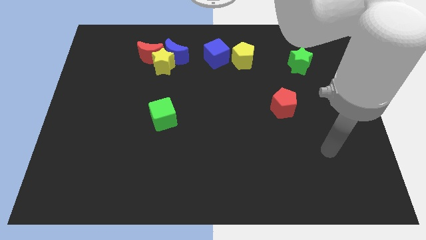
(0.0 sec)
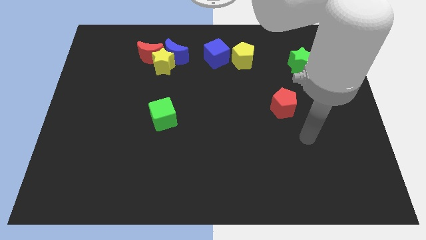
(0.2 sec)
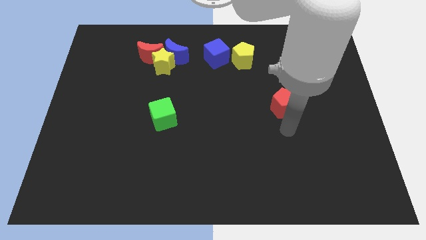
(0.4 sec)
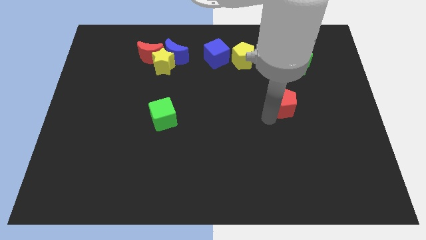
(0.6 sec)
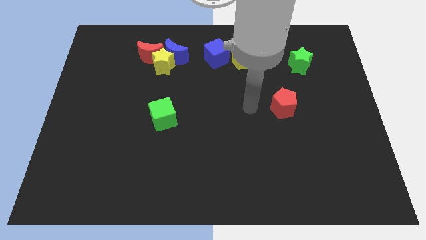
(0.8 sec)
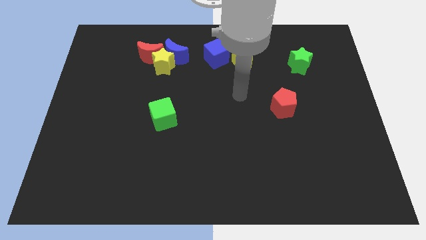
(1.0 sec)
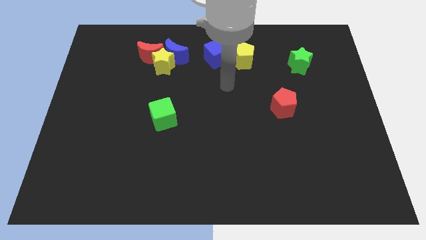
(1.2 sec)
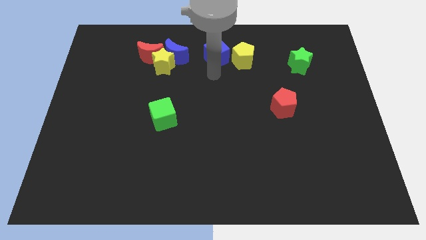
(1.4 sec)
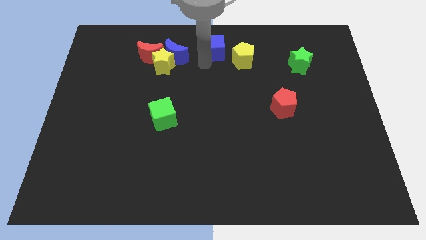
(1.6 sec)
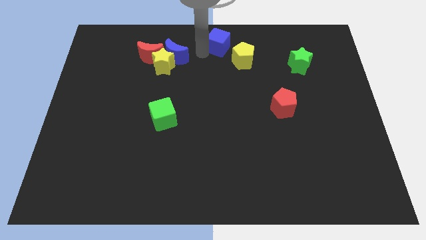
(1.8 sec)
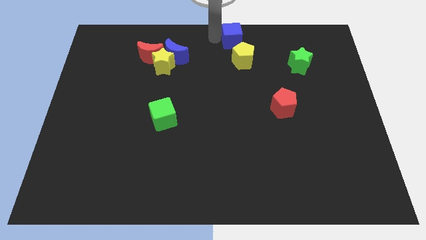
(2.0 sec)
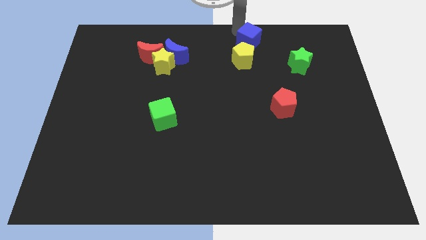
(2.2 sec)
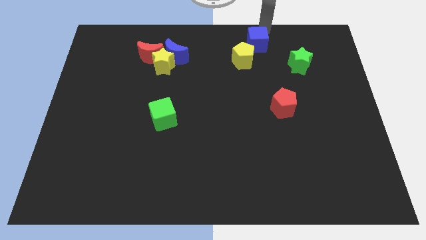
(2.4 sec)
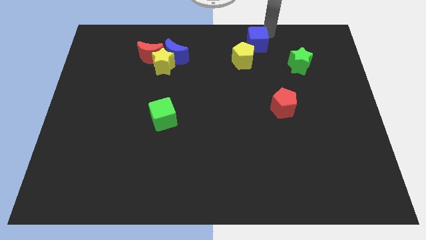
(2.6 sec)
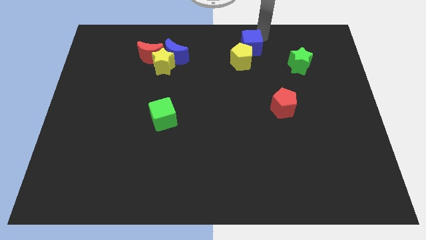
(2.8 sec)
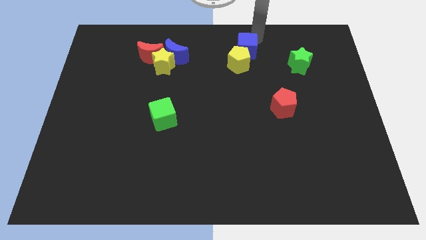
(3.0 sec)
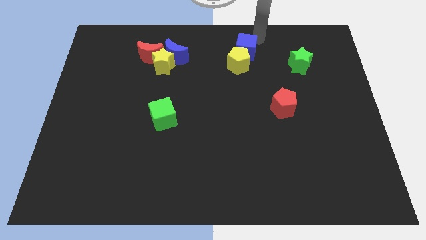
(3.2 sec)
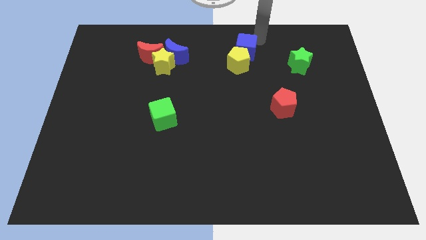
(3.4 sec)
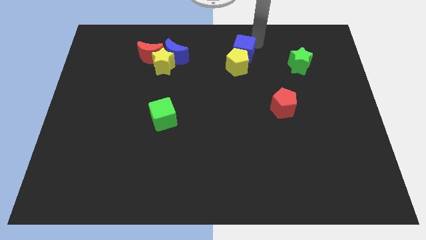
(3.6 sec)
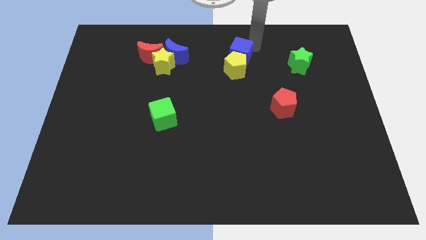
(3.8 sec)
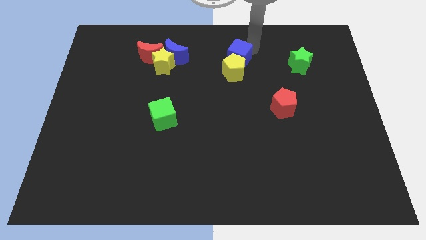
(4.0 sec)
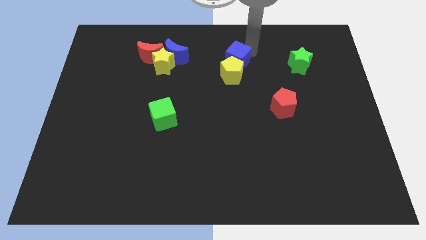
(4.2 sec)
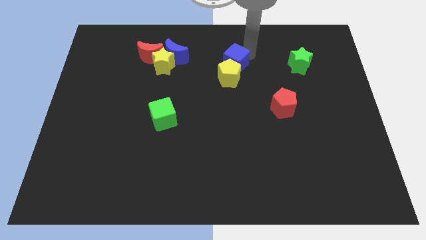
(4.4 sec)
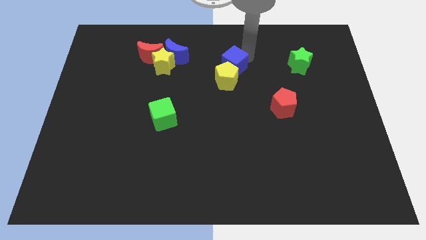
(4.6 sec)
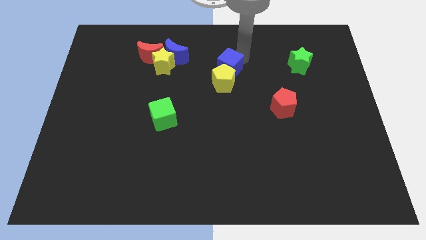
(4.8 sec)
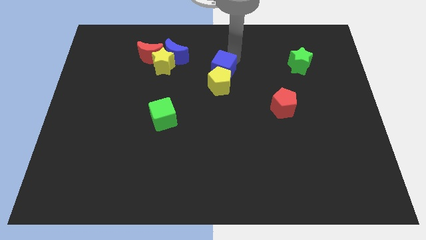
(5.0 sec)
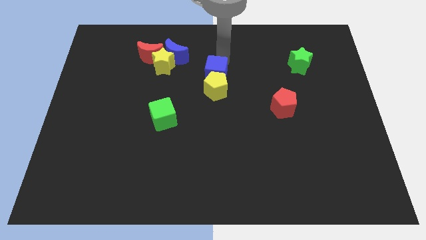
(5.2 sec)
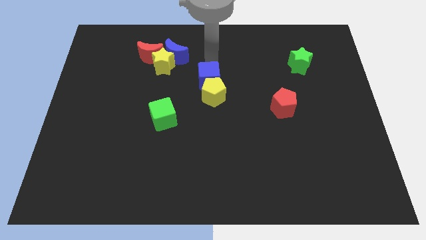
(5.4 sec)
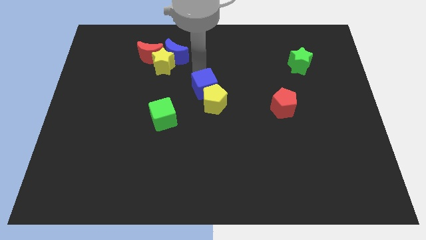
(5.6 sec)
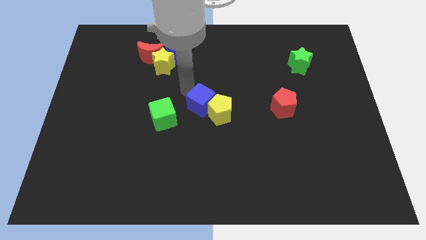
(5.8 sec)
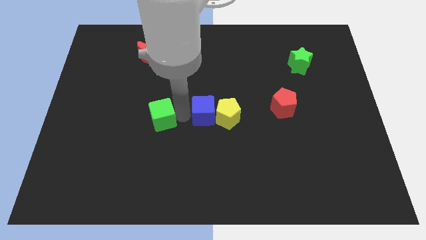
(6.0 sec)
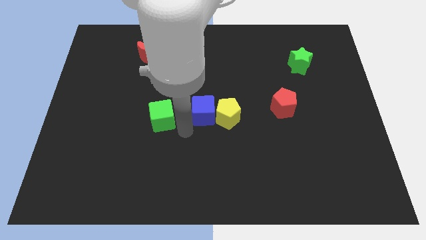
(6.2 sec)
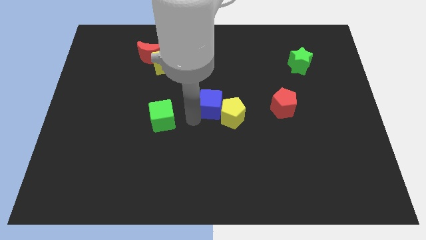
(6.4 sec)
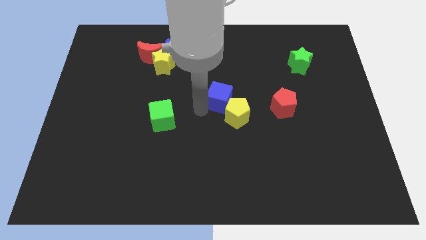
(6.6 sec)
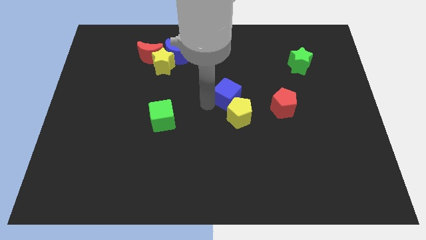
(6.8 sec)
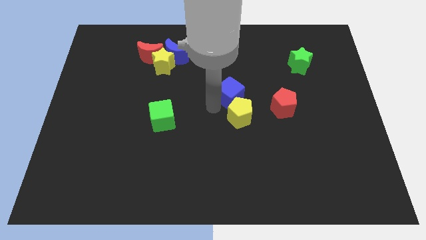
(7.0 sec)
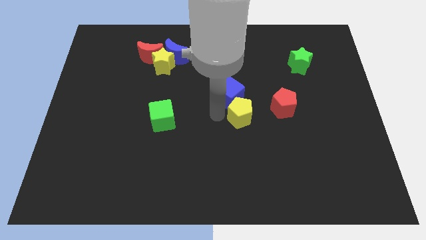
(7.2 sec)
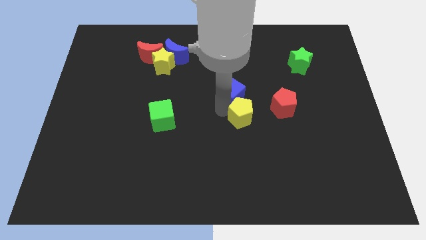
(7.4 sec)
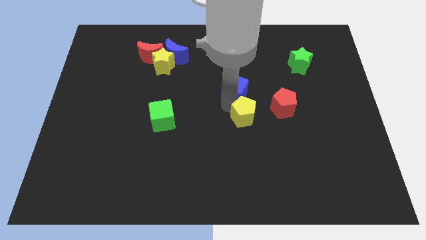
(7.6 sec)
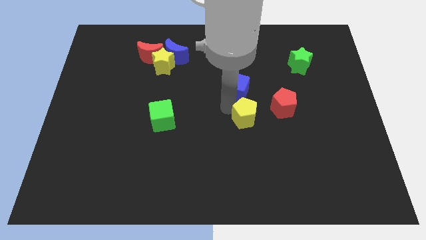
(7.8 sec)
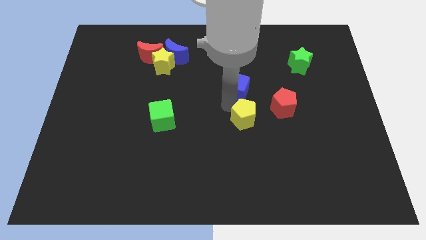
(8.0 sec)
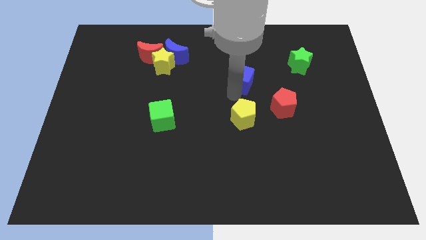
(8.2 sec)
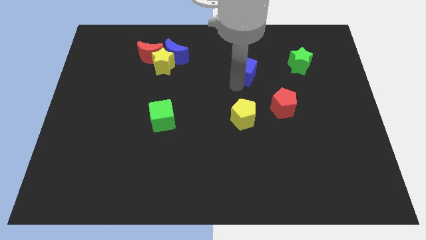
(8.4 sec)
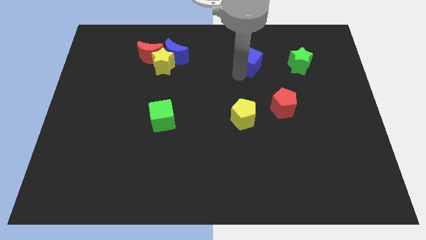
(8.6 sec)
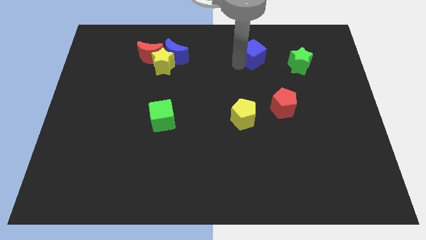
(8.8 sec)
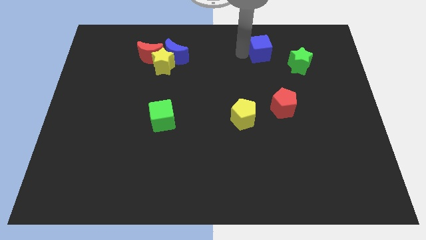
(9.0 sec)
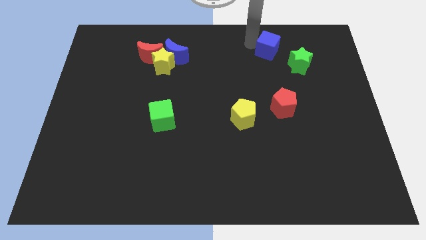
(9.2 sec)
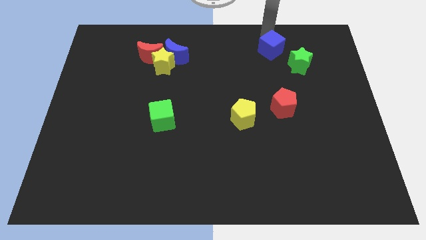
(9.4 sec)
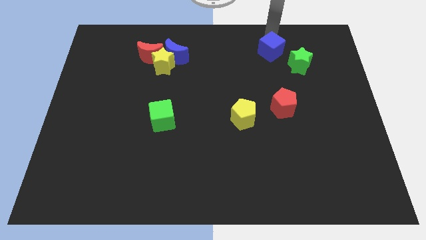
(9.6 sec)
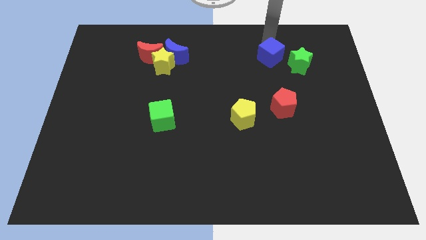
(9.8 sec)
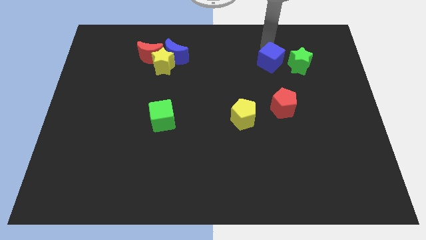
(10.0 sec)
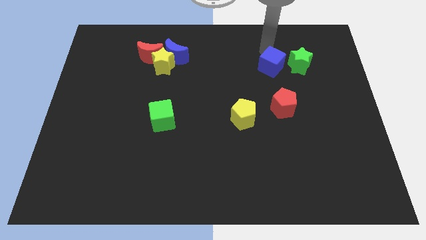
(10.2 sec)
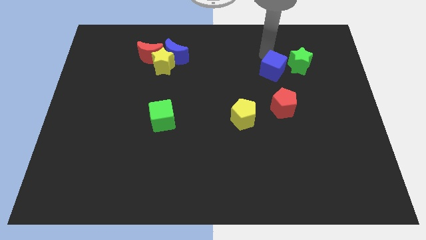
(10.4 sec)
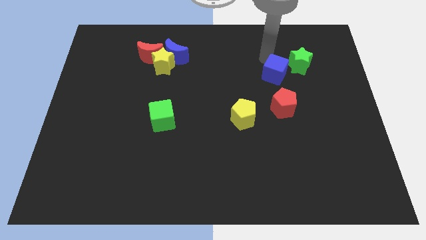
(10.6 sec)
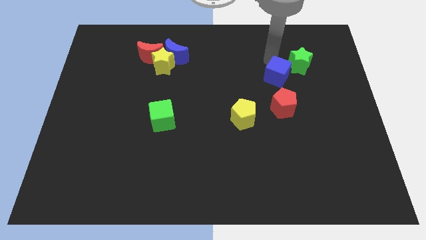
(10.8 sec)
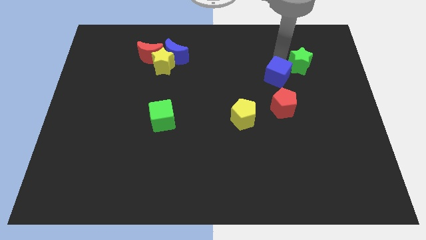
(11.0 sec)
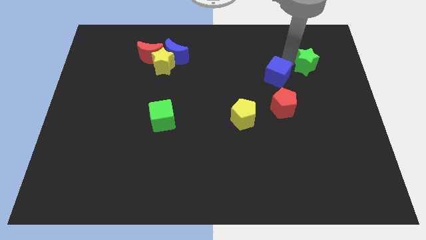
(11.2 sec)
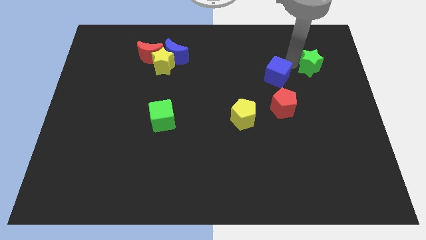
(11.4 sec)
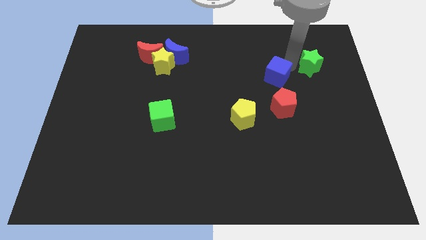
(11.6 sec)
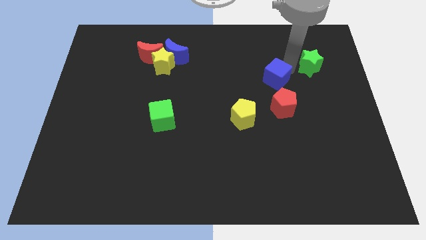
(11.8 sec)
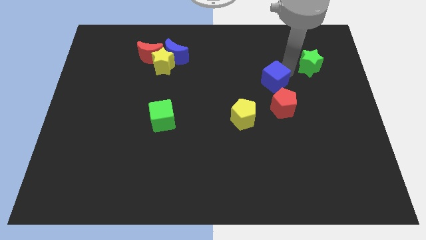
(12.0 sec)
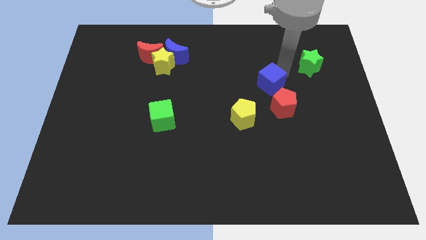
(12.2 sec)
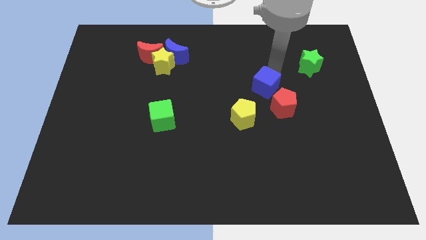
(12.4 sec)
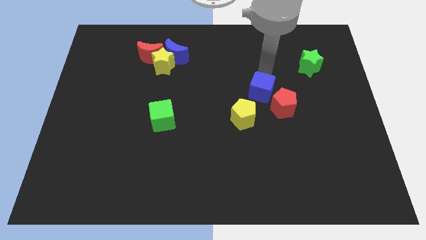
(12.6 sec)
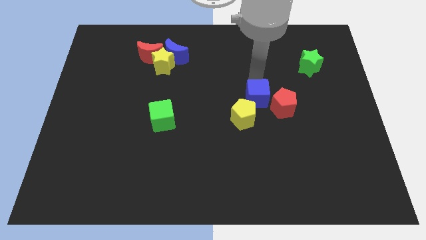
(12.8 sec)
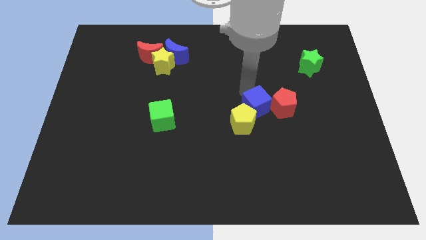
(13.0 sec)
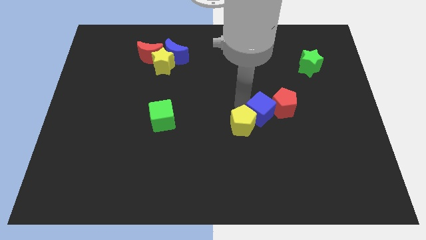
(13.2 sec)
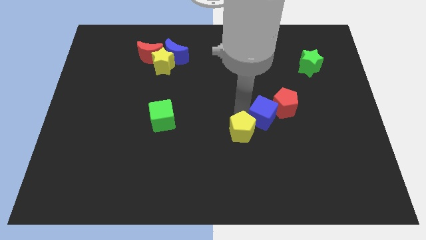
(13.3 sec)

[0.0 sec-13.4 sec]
move the blue cube downwards and to the right

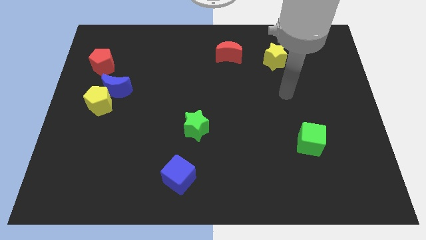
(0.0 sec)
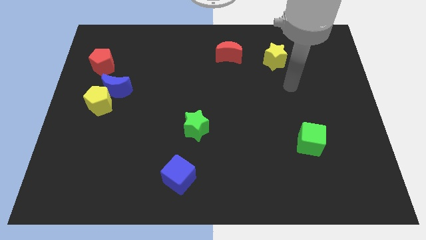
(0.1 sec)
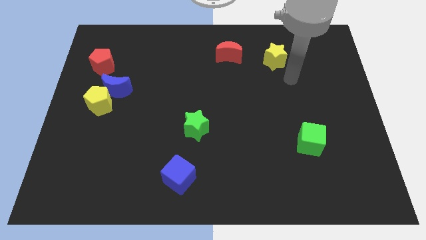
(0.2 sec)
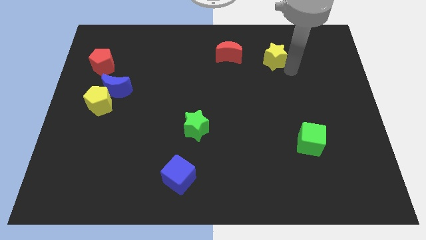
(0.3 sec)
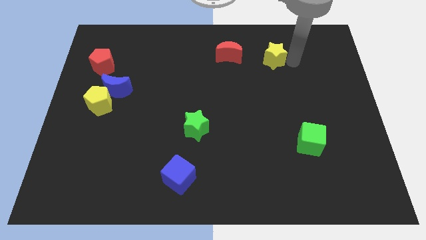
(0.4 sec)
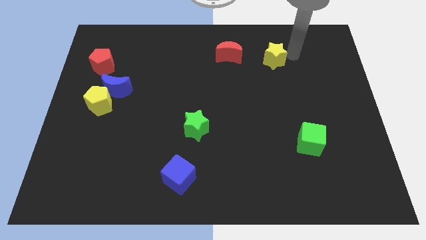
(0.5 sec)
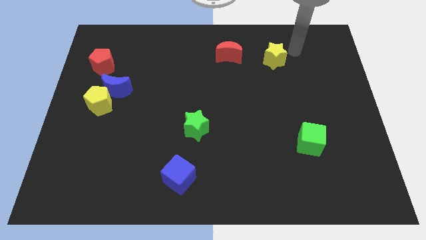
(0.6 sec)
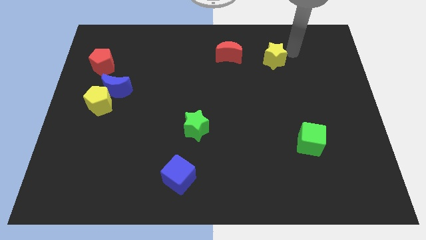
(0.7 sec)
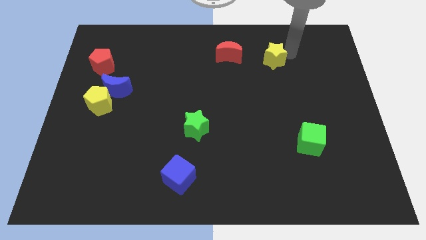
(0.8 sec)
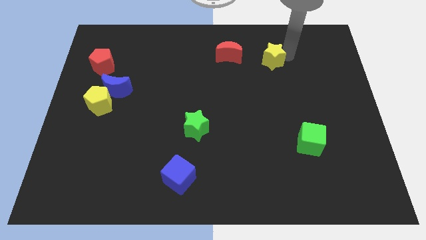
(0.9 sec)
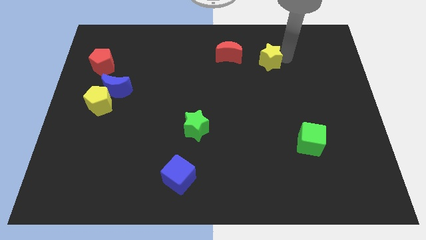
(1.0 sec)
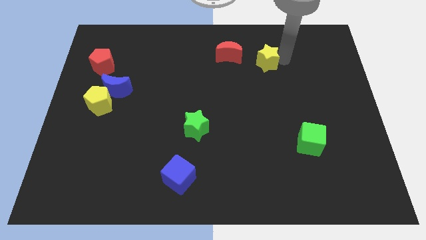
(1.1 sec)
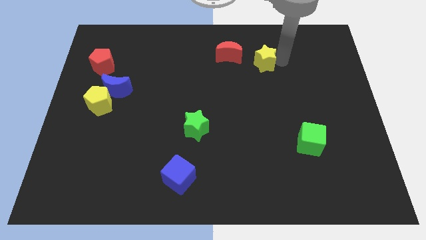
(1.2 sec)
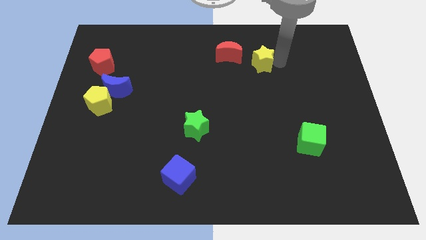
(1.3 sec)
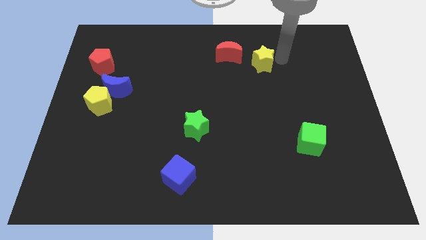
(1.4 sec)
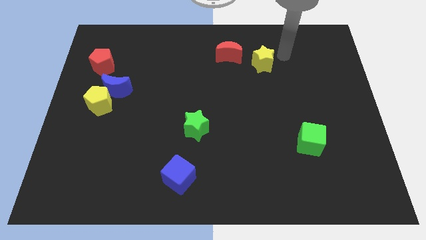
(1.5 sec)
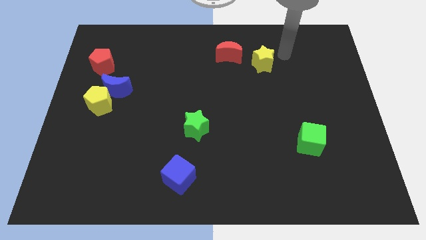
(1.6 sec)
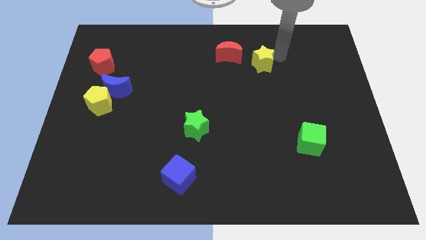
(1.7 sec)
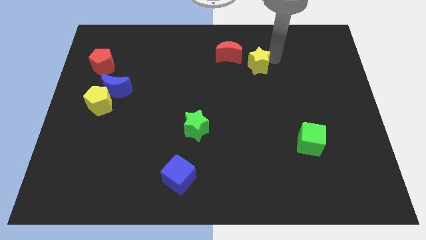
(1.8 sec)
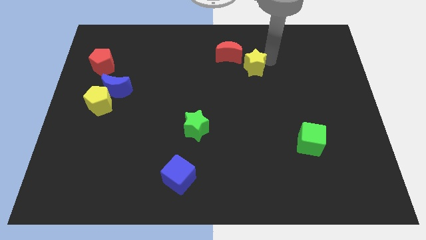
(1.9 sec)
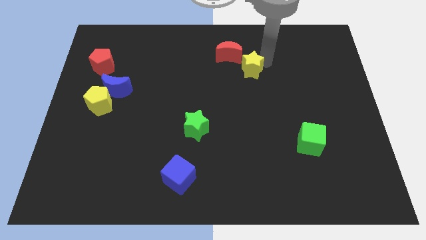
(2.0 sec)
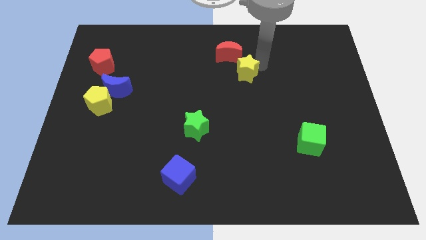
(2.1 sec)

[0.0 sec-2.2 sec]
move the yellow star a bit to the left
